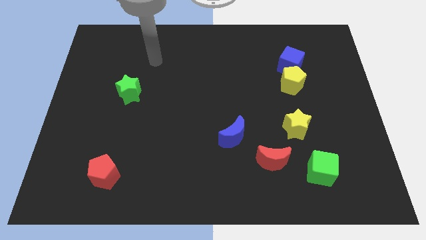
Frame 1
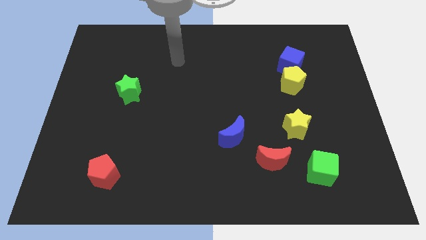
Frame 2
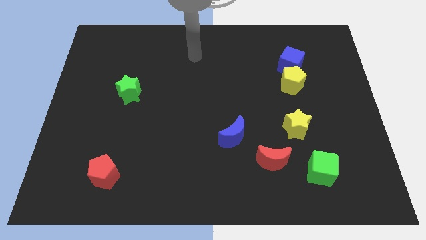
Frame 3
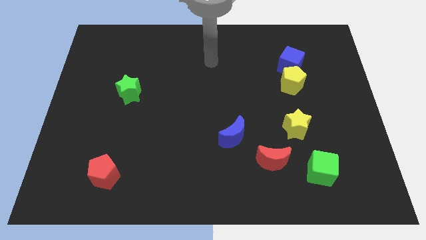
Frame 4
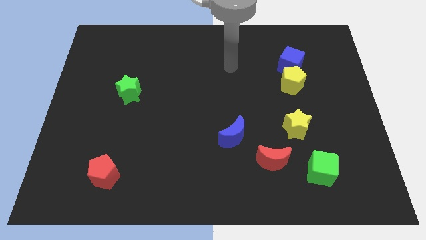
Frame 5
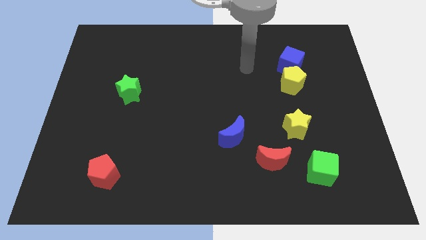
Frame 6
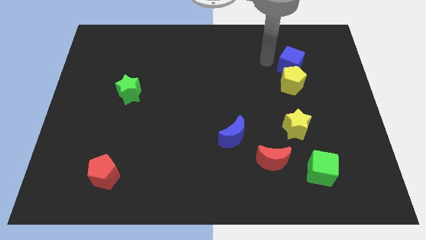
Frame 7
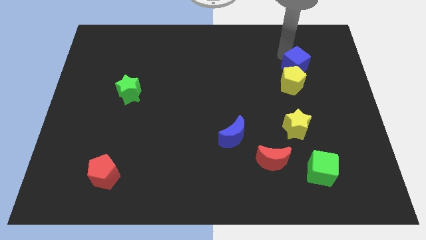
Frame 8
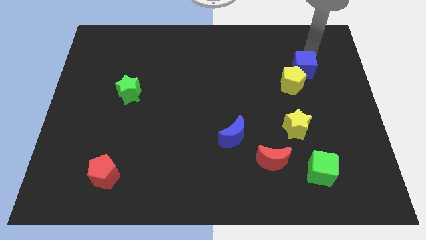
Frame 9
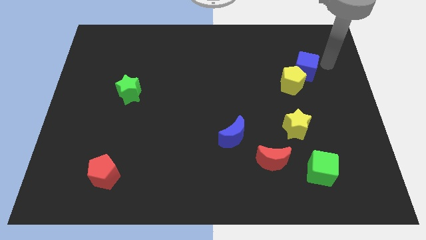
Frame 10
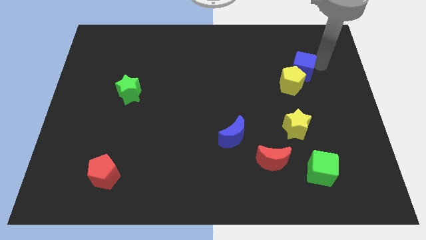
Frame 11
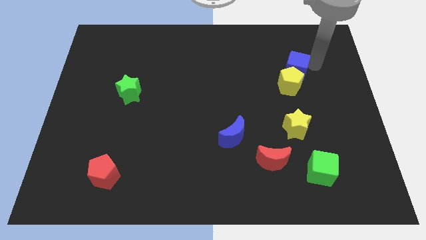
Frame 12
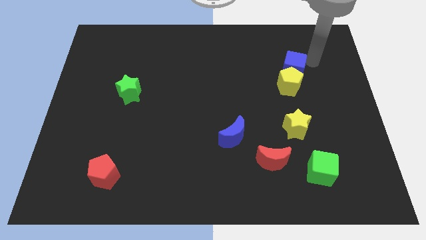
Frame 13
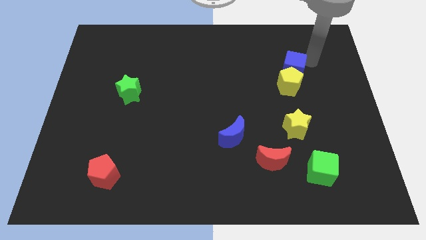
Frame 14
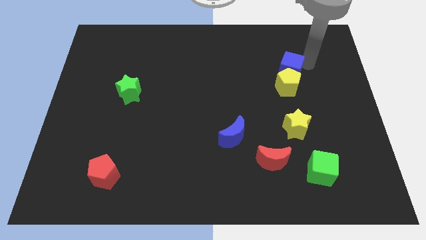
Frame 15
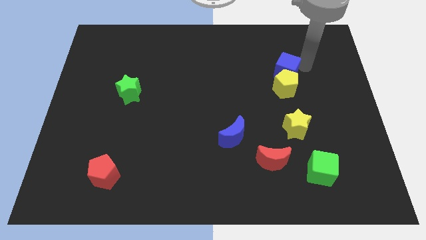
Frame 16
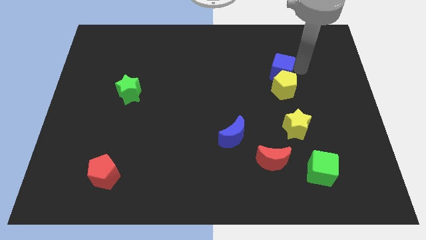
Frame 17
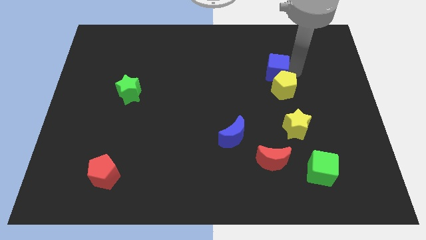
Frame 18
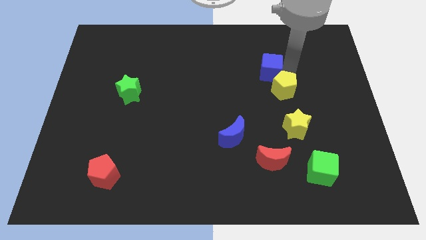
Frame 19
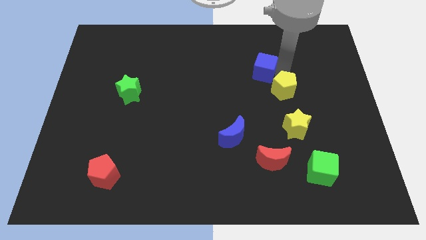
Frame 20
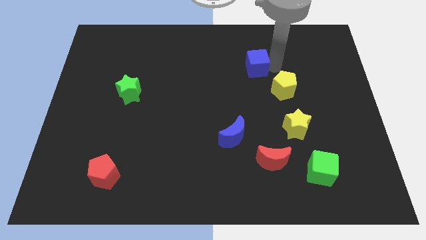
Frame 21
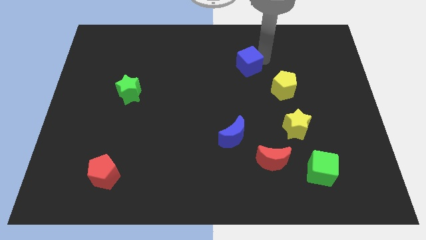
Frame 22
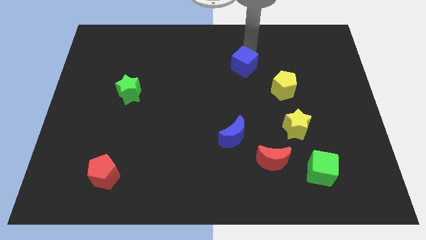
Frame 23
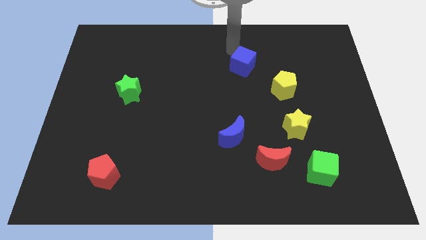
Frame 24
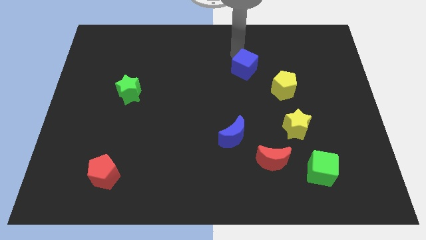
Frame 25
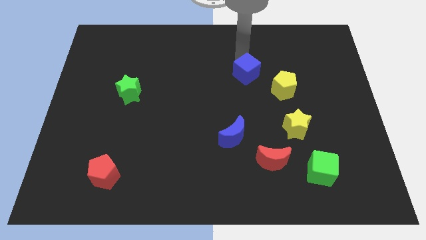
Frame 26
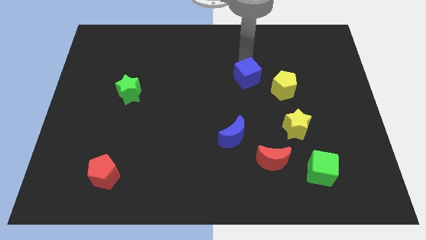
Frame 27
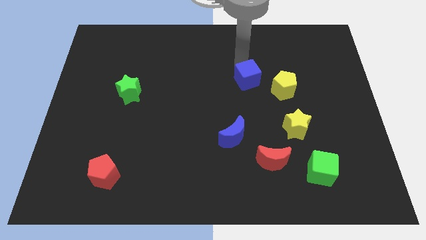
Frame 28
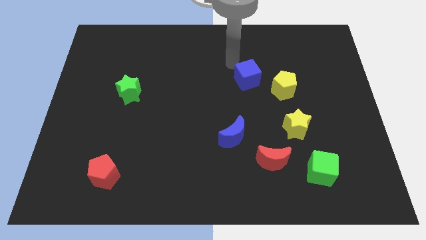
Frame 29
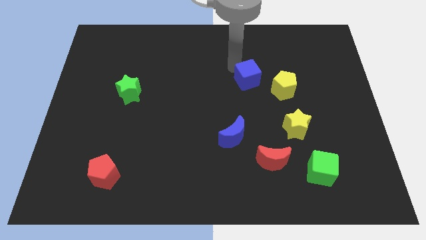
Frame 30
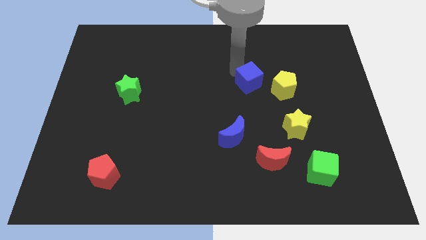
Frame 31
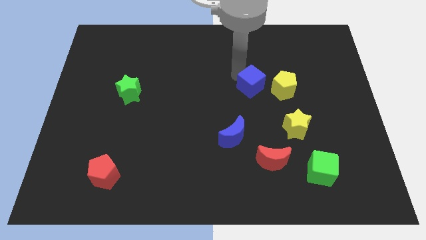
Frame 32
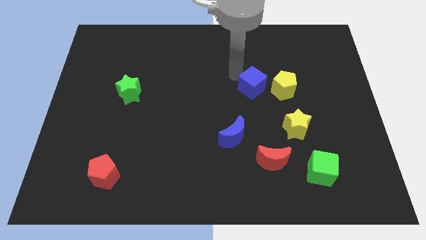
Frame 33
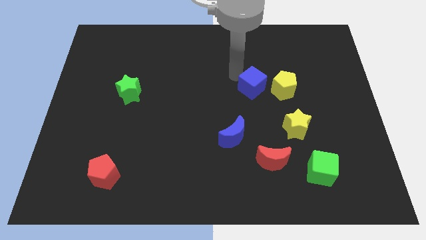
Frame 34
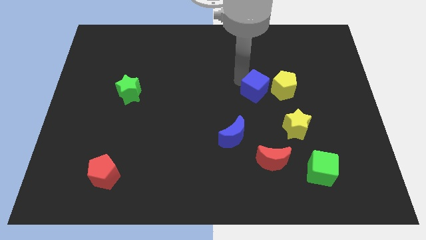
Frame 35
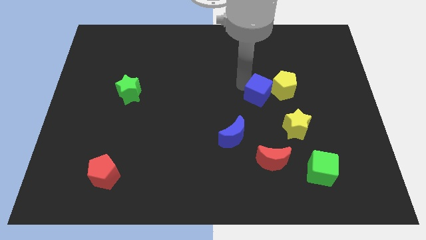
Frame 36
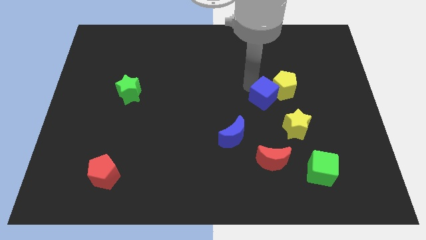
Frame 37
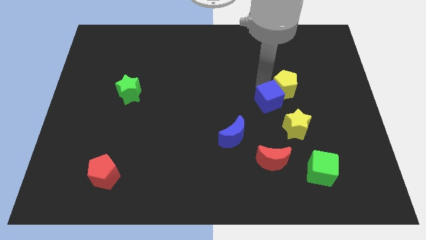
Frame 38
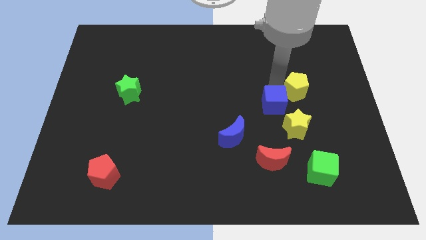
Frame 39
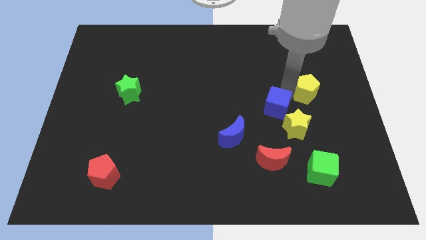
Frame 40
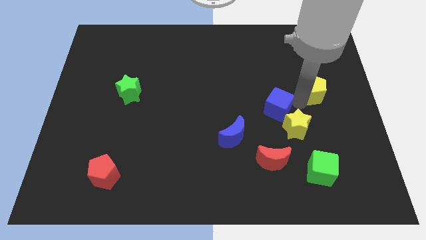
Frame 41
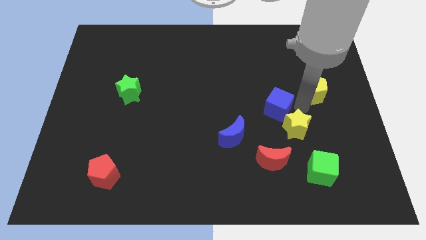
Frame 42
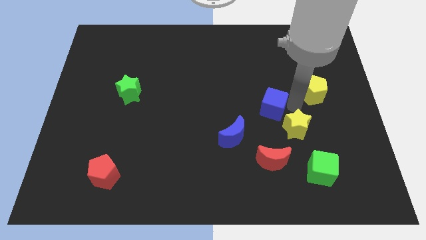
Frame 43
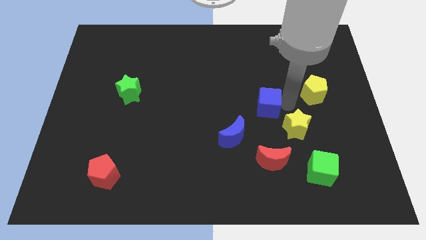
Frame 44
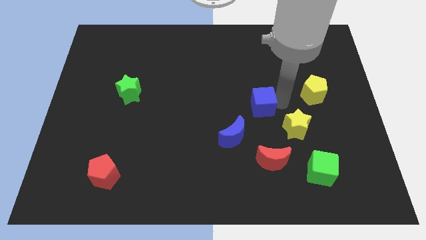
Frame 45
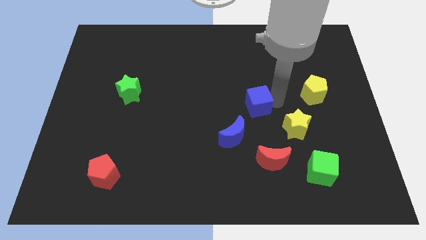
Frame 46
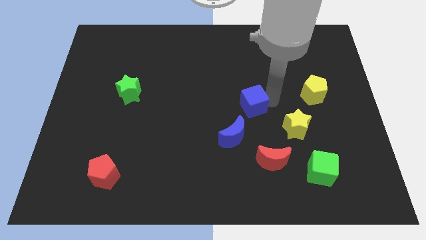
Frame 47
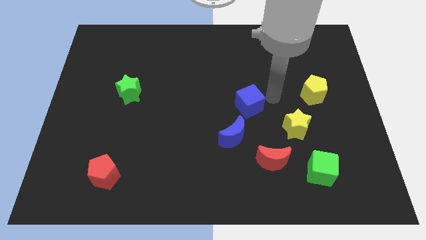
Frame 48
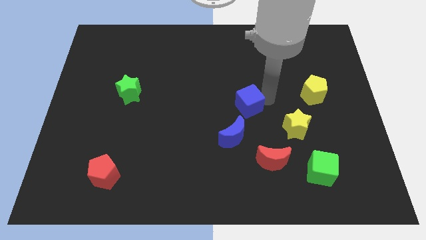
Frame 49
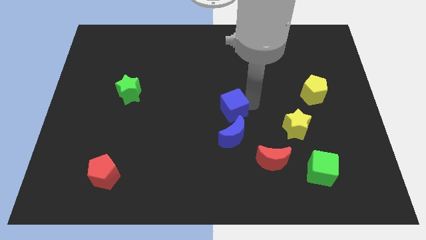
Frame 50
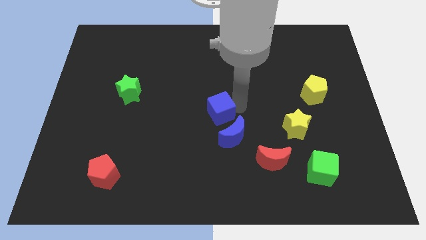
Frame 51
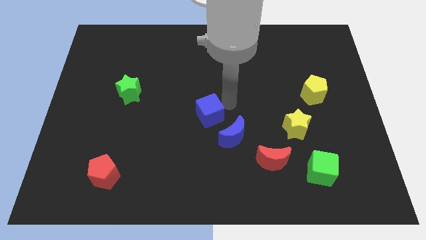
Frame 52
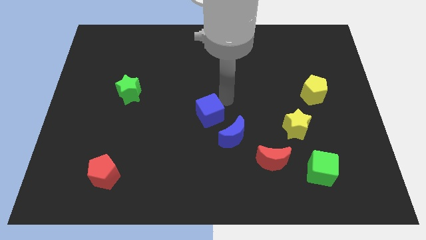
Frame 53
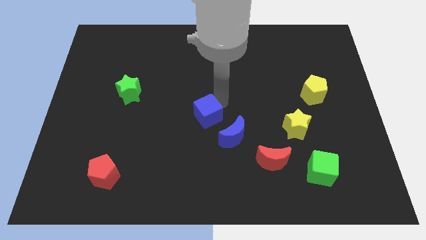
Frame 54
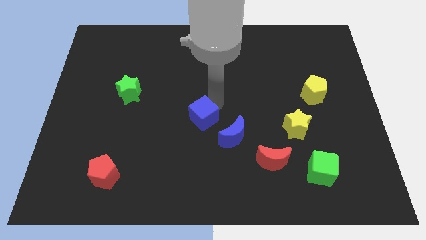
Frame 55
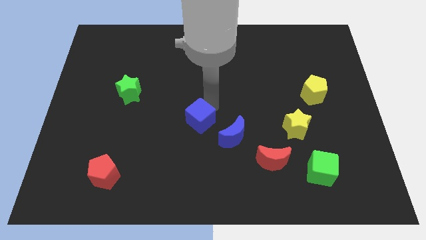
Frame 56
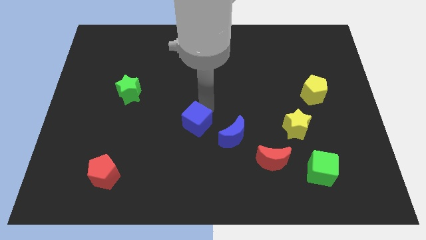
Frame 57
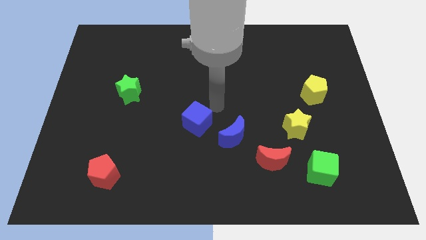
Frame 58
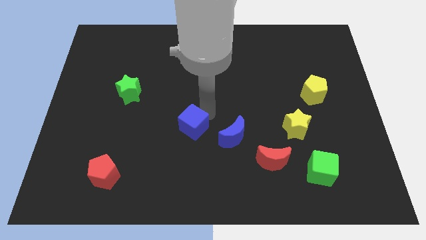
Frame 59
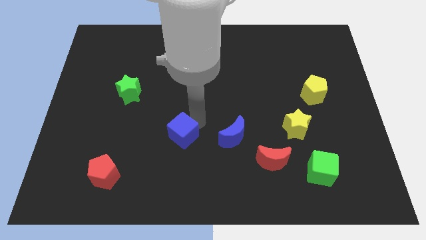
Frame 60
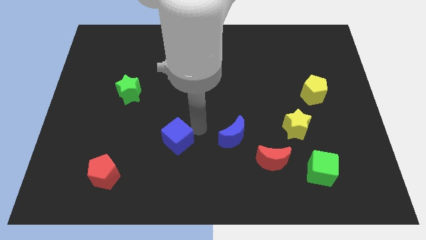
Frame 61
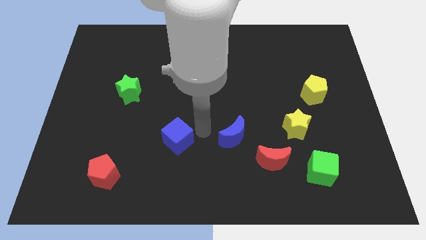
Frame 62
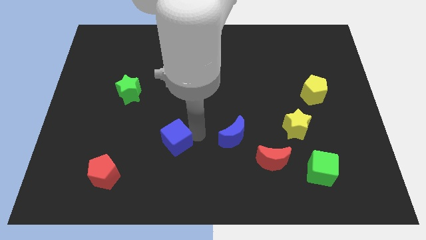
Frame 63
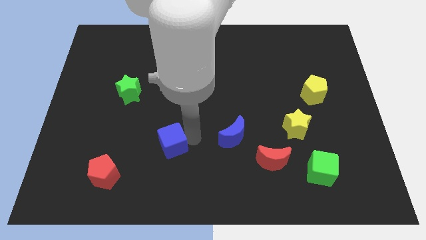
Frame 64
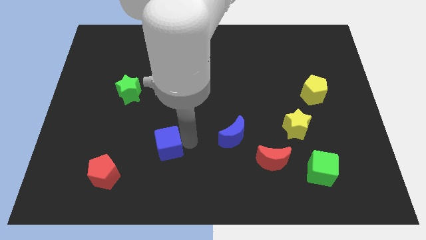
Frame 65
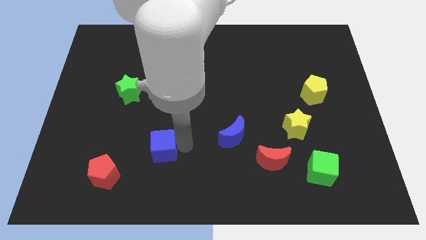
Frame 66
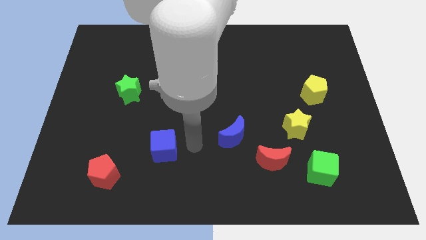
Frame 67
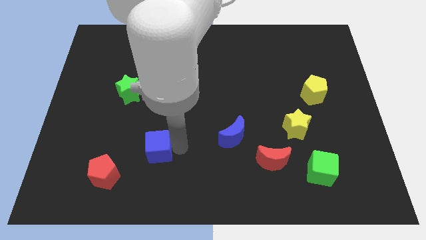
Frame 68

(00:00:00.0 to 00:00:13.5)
put the blue cube to the top right of the red pentagon

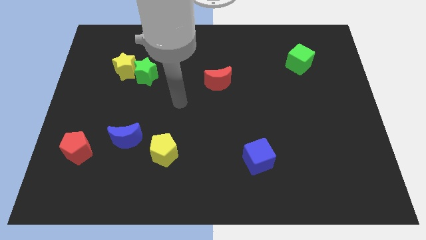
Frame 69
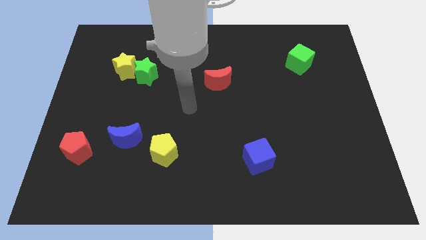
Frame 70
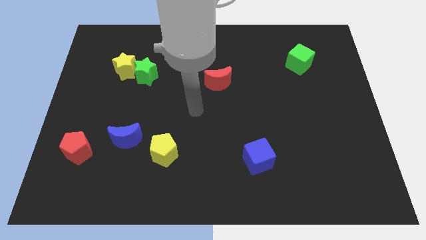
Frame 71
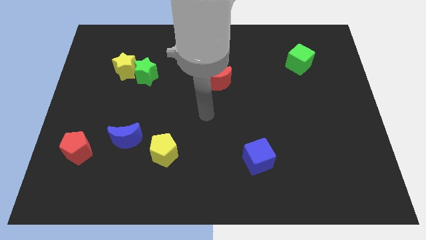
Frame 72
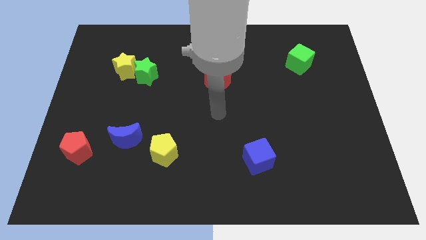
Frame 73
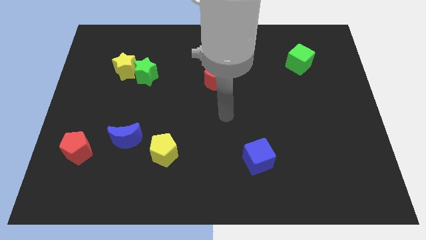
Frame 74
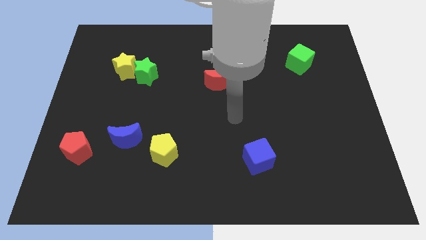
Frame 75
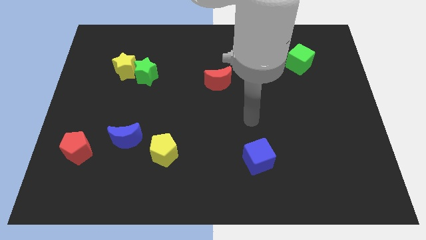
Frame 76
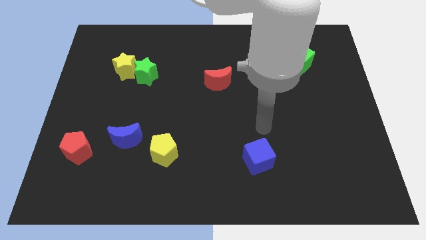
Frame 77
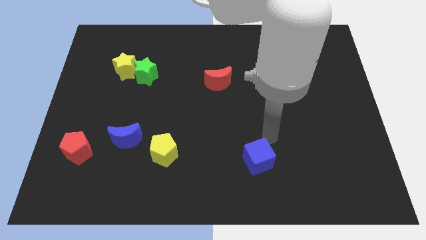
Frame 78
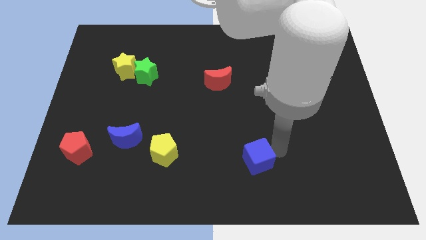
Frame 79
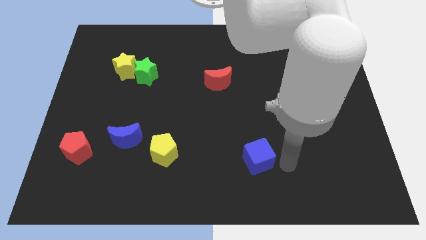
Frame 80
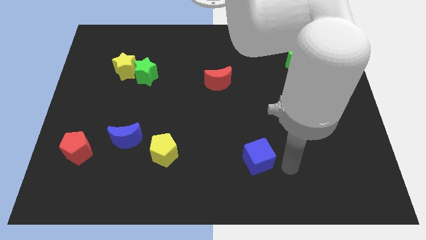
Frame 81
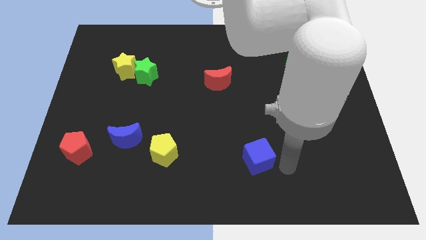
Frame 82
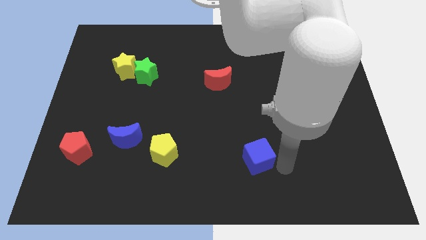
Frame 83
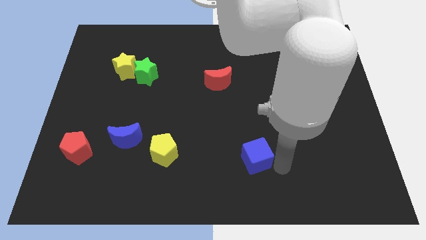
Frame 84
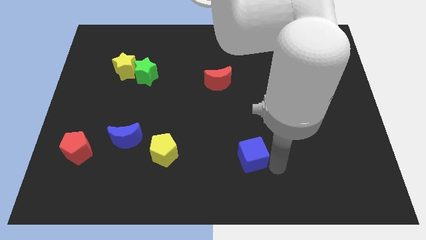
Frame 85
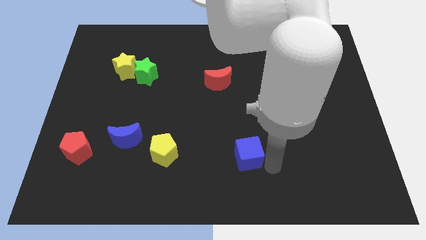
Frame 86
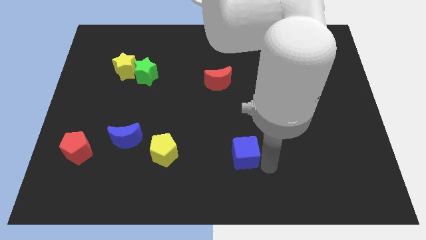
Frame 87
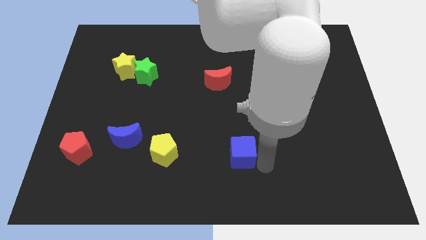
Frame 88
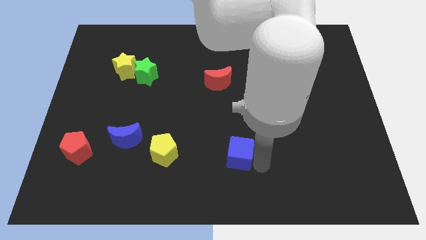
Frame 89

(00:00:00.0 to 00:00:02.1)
put the blue cube to the right side of the yellow pentagon
